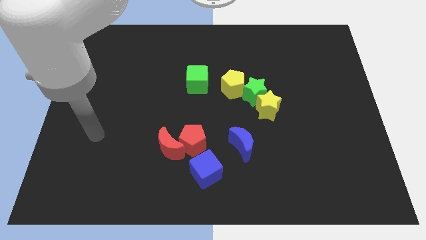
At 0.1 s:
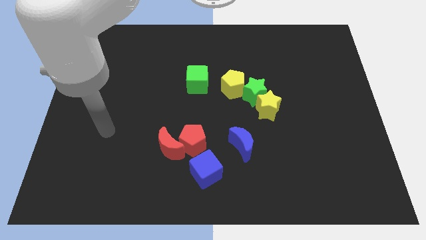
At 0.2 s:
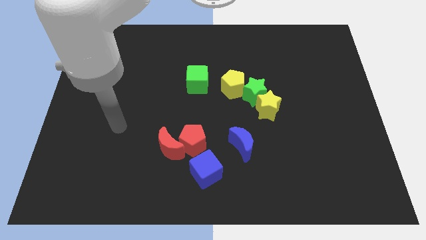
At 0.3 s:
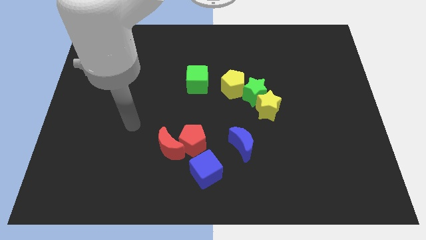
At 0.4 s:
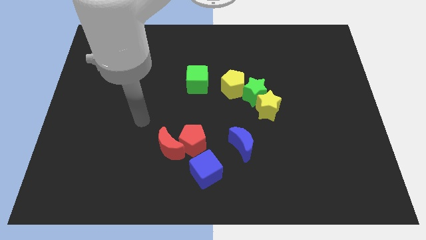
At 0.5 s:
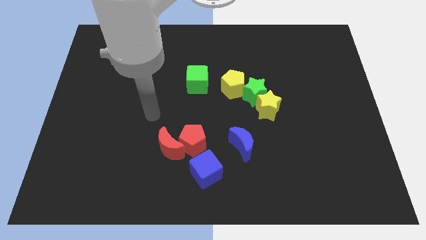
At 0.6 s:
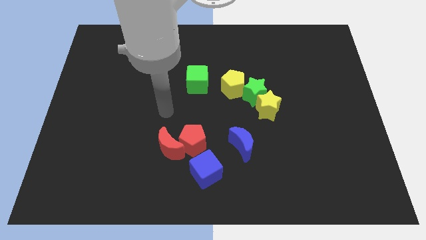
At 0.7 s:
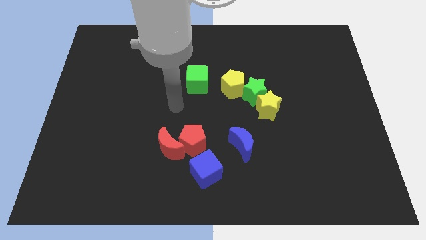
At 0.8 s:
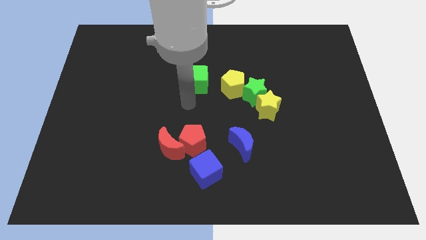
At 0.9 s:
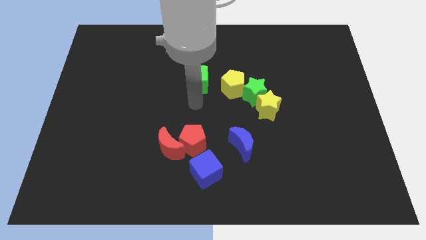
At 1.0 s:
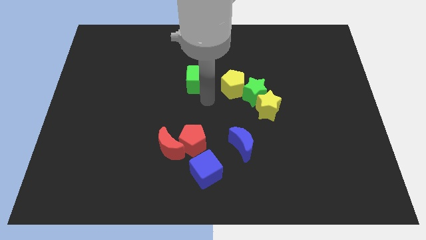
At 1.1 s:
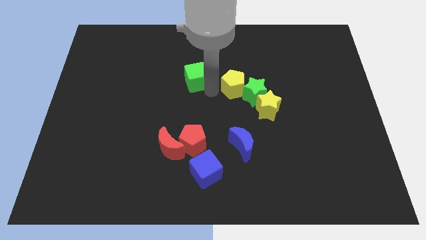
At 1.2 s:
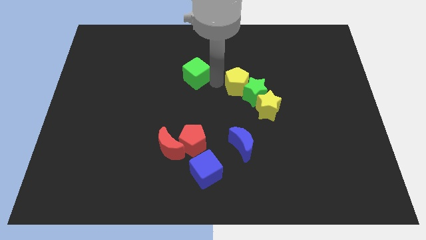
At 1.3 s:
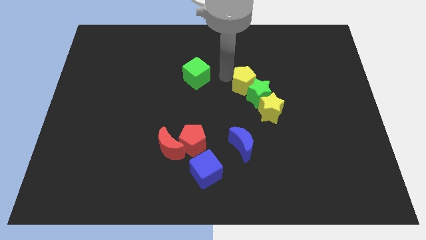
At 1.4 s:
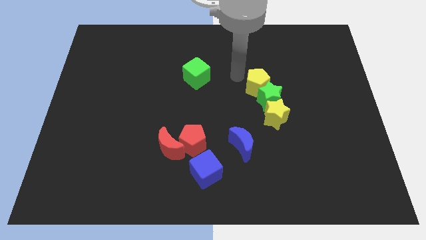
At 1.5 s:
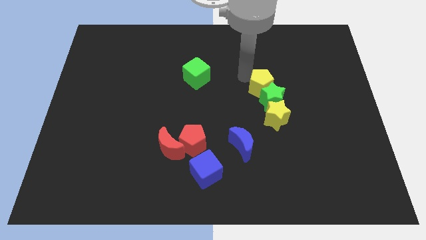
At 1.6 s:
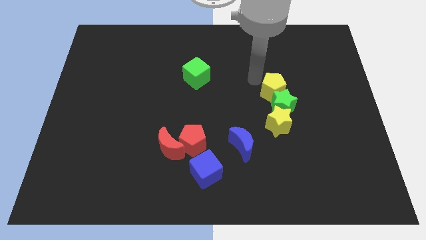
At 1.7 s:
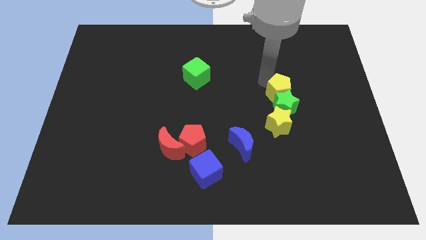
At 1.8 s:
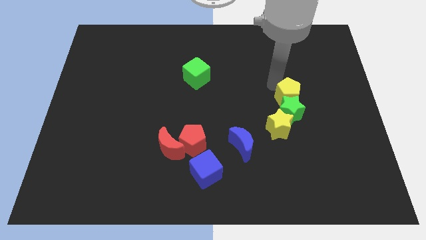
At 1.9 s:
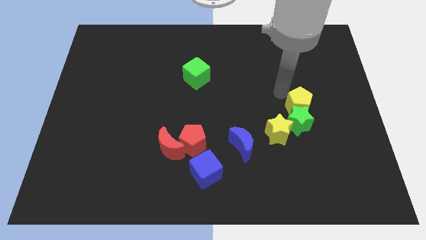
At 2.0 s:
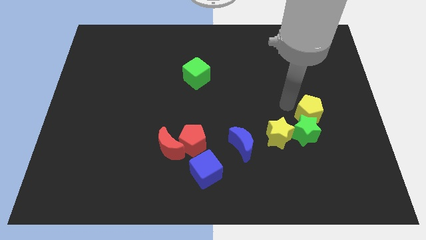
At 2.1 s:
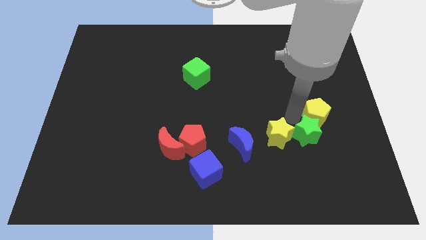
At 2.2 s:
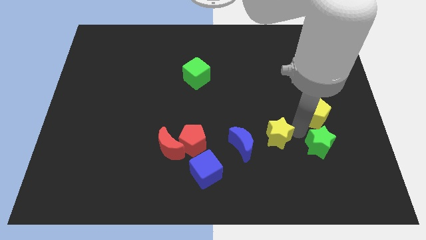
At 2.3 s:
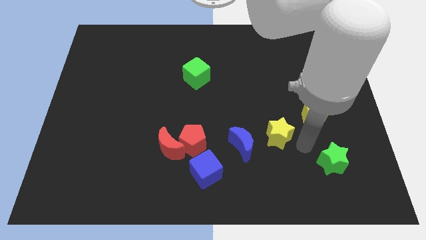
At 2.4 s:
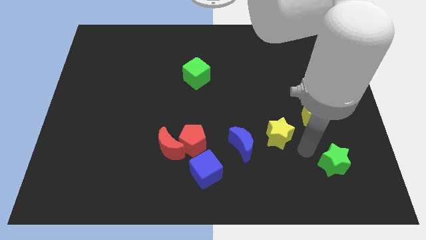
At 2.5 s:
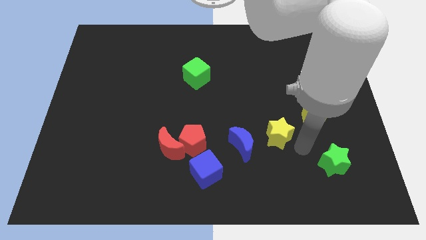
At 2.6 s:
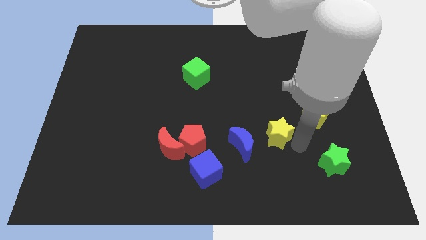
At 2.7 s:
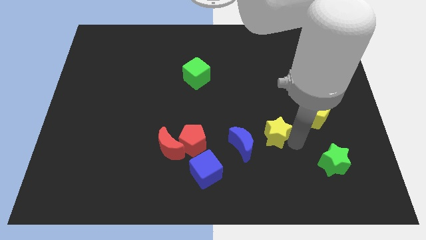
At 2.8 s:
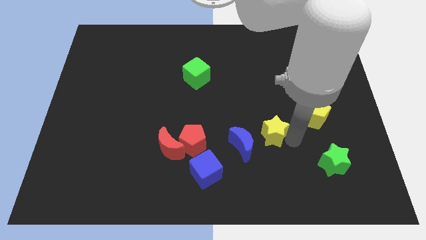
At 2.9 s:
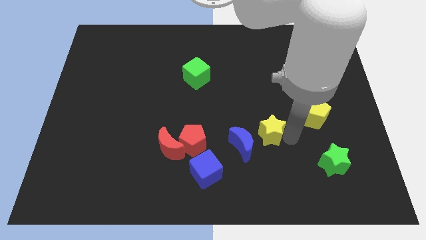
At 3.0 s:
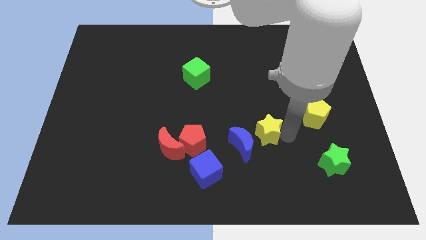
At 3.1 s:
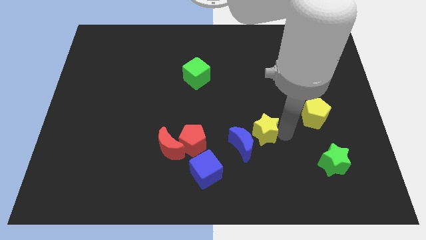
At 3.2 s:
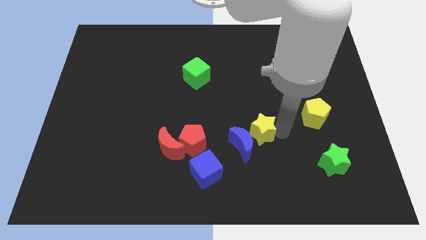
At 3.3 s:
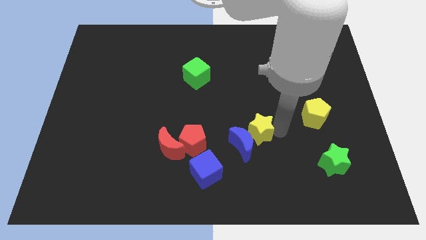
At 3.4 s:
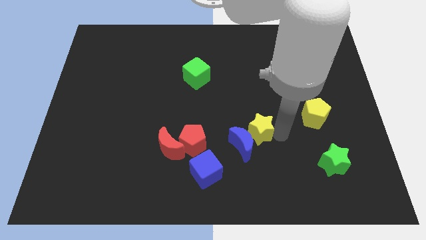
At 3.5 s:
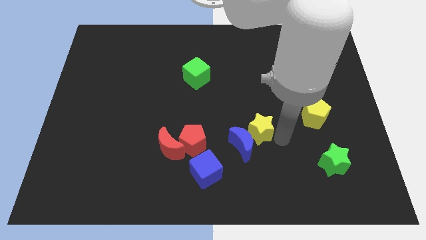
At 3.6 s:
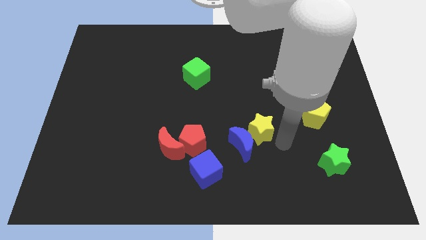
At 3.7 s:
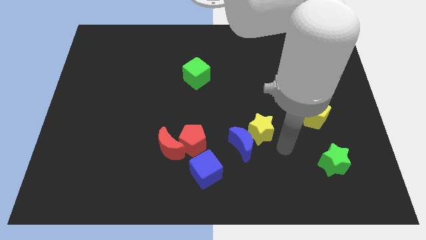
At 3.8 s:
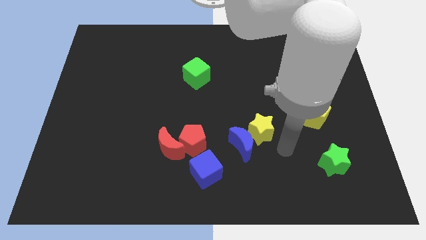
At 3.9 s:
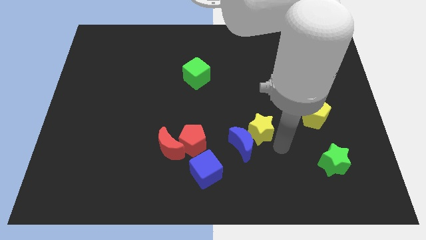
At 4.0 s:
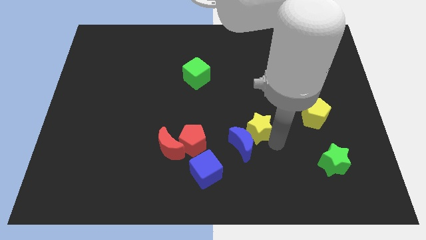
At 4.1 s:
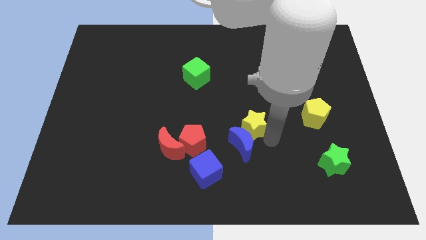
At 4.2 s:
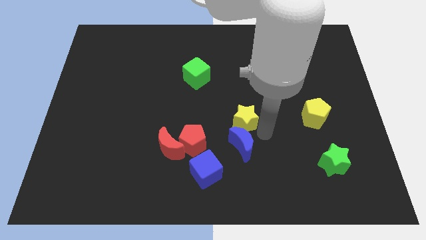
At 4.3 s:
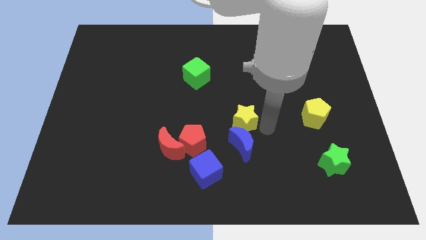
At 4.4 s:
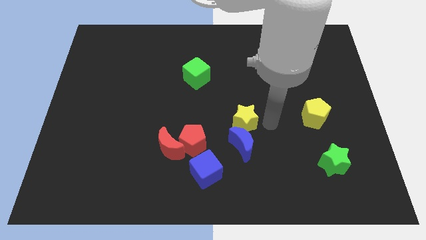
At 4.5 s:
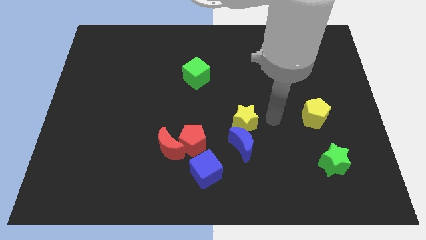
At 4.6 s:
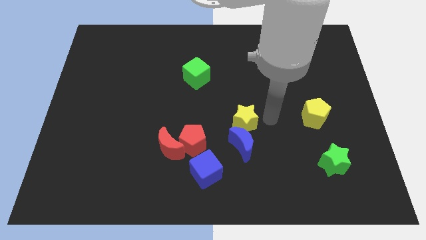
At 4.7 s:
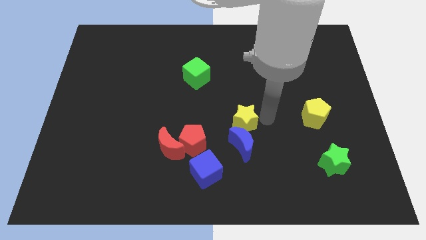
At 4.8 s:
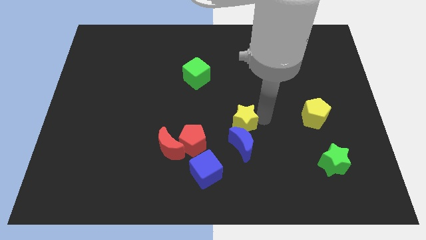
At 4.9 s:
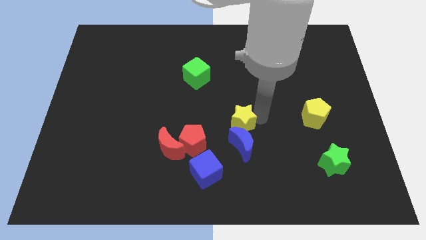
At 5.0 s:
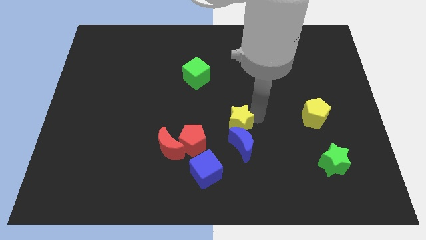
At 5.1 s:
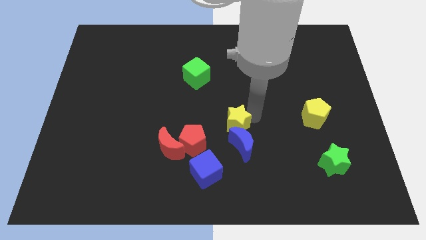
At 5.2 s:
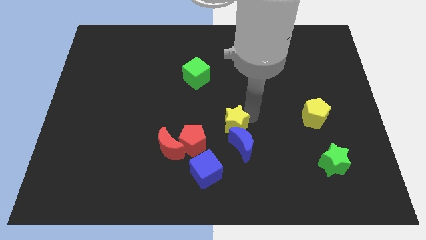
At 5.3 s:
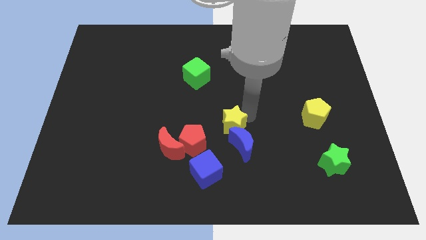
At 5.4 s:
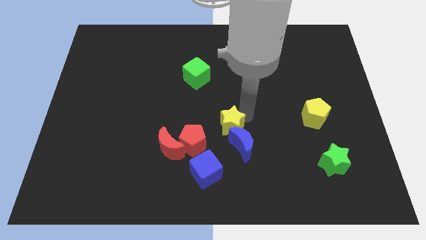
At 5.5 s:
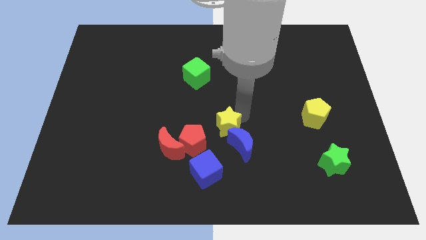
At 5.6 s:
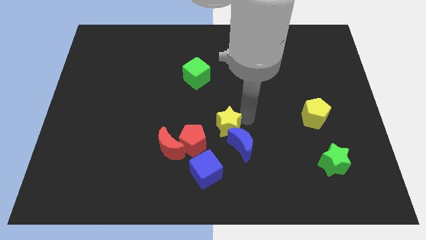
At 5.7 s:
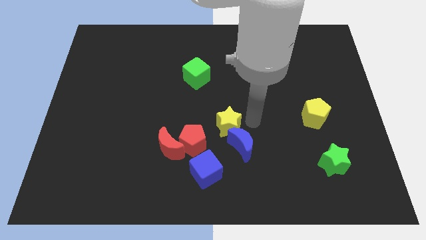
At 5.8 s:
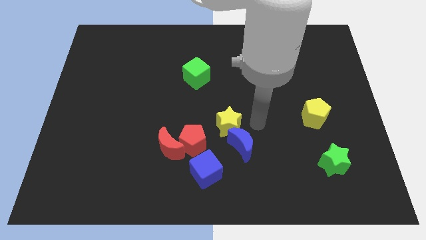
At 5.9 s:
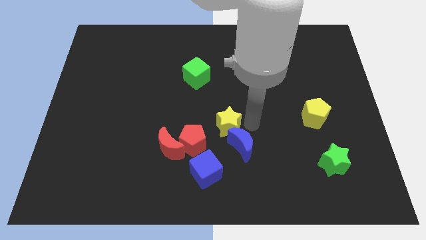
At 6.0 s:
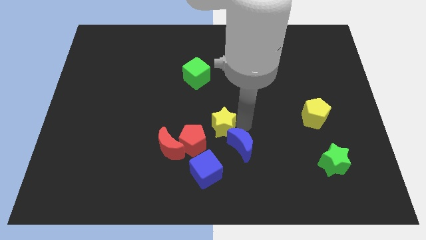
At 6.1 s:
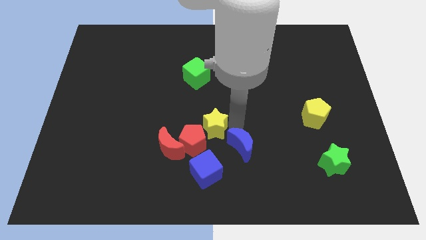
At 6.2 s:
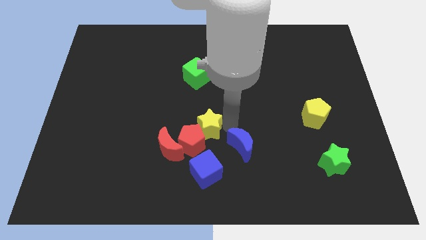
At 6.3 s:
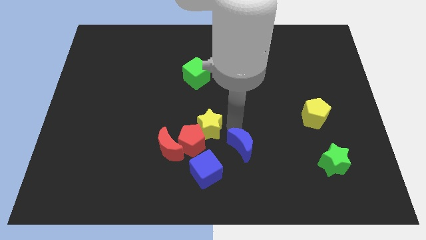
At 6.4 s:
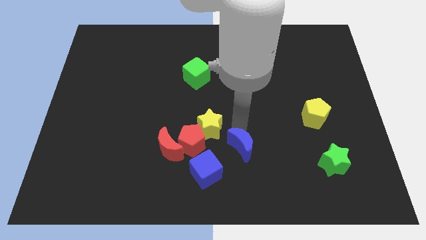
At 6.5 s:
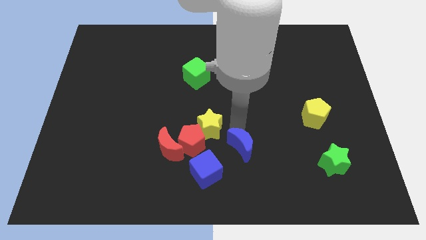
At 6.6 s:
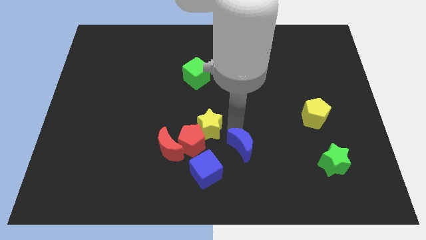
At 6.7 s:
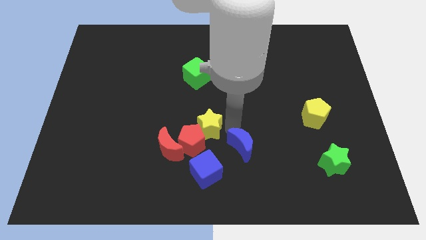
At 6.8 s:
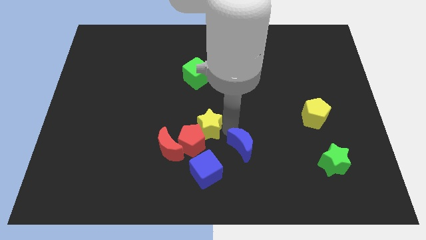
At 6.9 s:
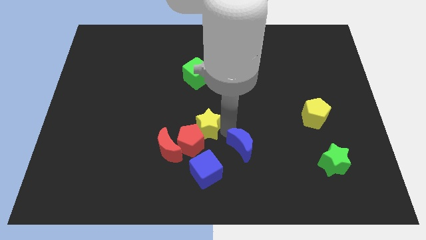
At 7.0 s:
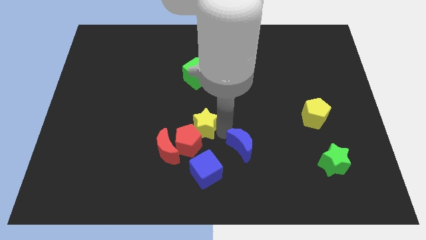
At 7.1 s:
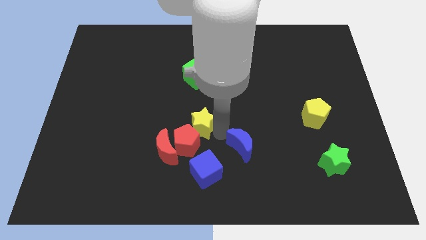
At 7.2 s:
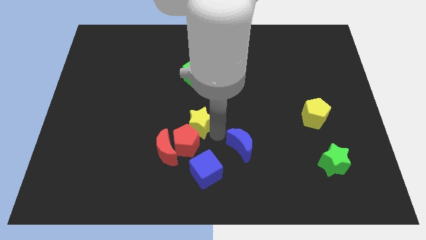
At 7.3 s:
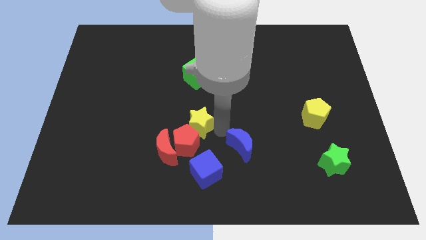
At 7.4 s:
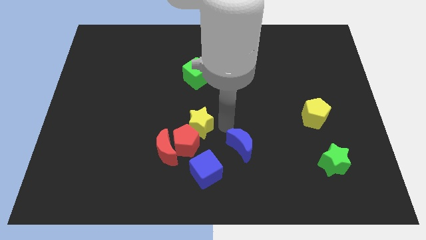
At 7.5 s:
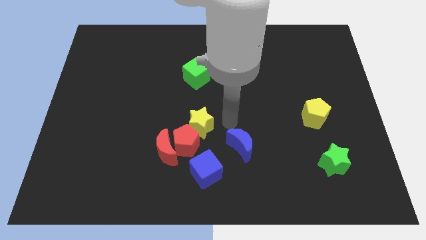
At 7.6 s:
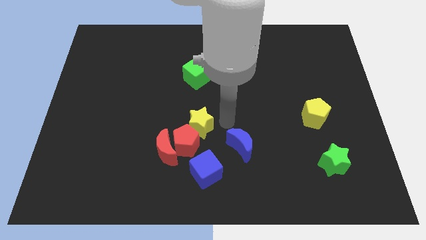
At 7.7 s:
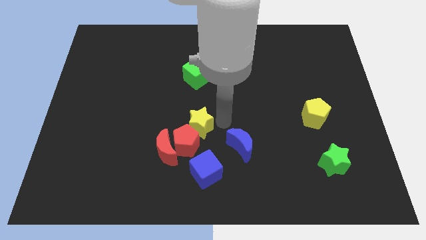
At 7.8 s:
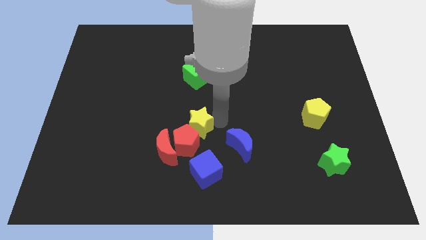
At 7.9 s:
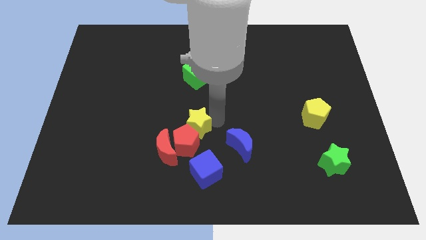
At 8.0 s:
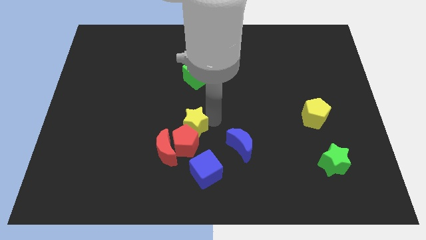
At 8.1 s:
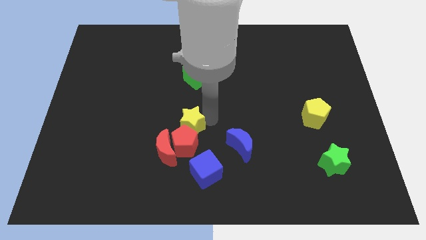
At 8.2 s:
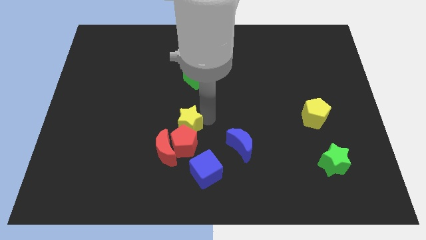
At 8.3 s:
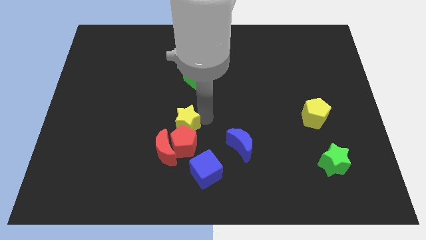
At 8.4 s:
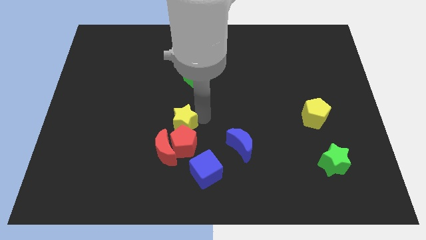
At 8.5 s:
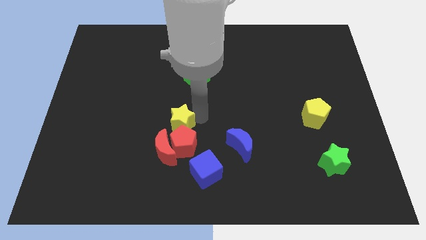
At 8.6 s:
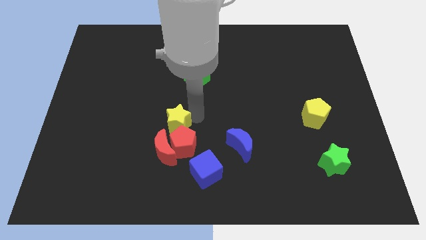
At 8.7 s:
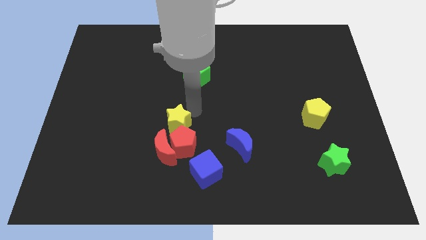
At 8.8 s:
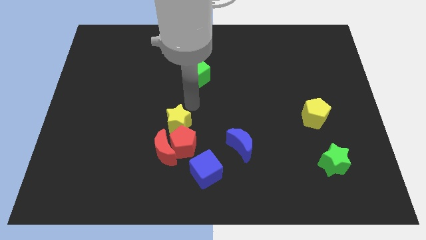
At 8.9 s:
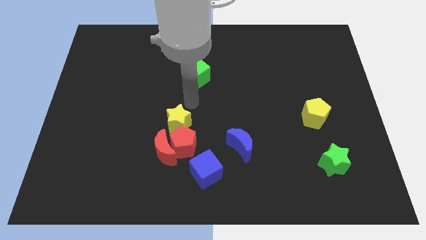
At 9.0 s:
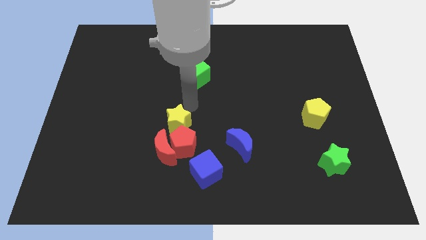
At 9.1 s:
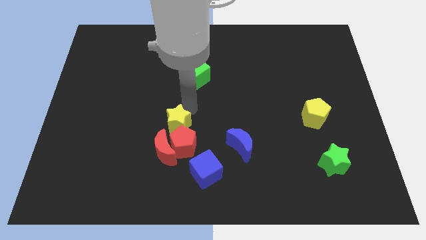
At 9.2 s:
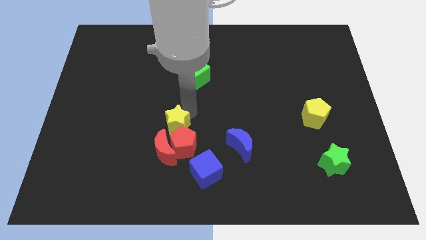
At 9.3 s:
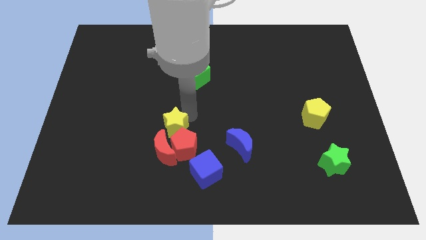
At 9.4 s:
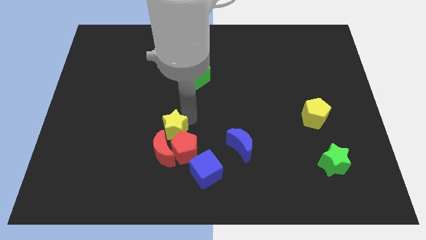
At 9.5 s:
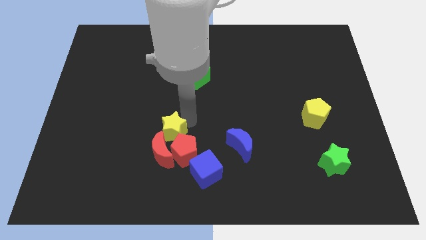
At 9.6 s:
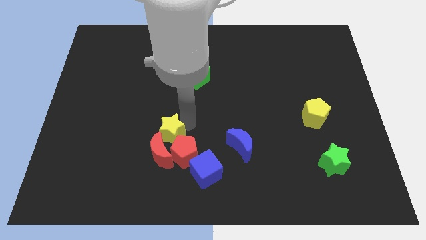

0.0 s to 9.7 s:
slide the yellow star next to the red moon
